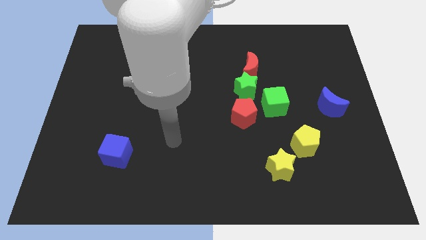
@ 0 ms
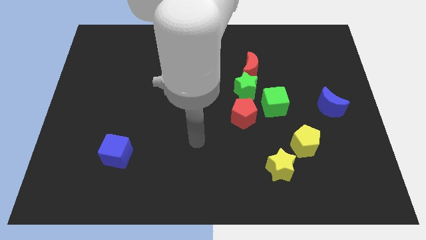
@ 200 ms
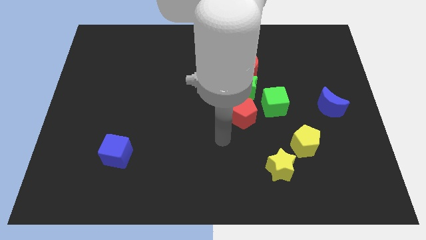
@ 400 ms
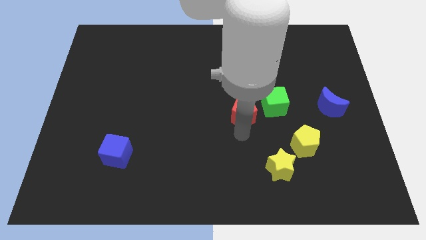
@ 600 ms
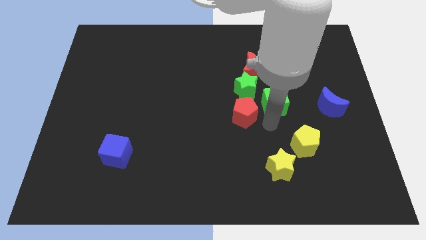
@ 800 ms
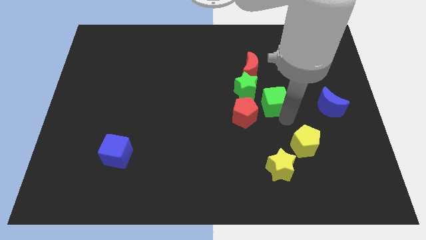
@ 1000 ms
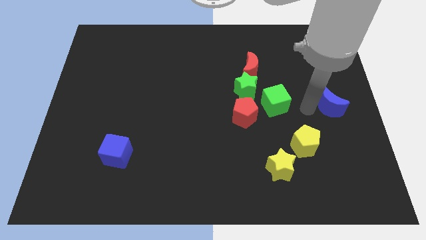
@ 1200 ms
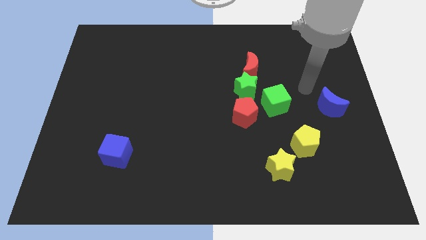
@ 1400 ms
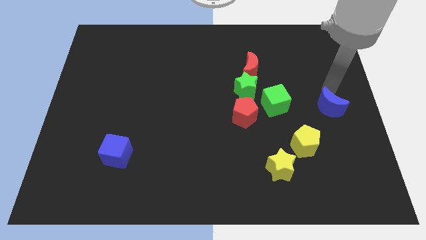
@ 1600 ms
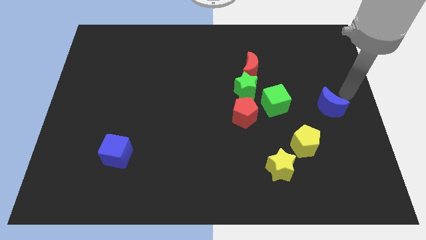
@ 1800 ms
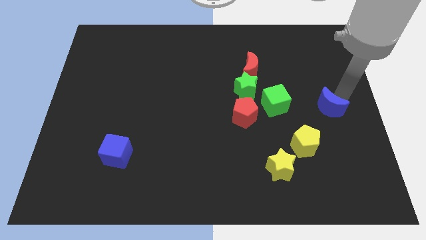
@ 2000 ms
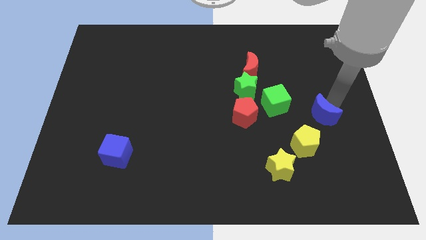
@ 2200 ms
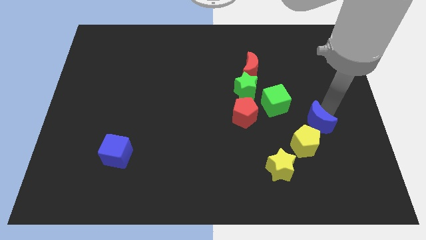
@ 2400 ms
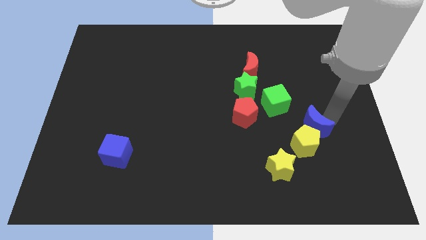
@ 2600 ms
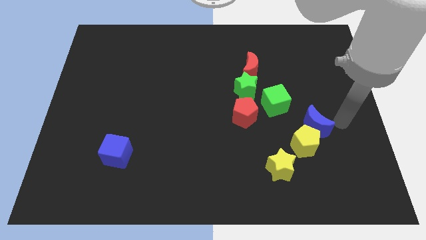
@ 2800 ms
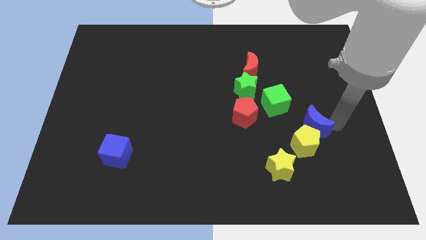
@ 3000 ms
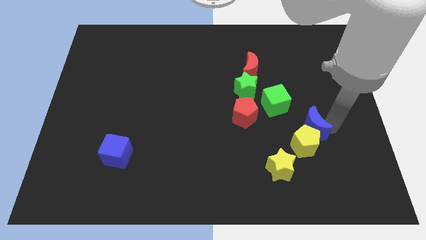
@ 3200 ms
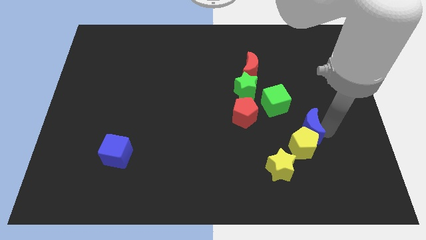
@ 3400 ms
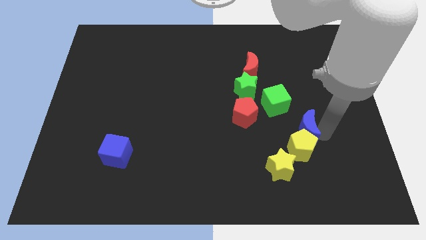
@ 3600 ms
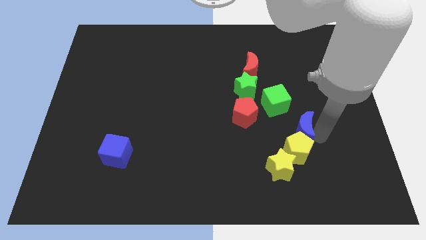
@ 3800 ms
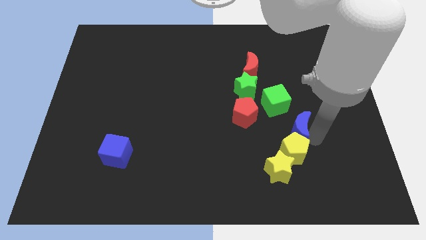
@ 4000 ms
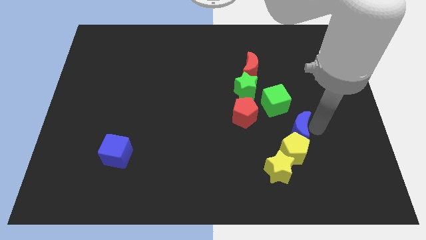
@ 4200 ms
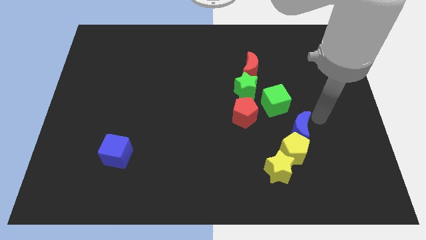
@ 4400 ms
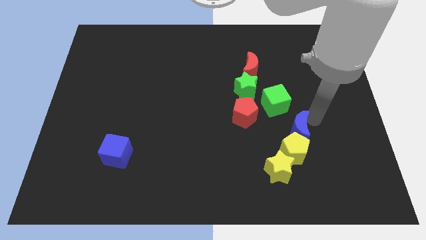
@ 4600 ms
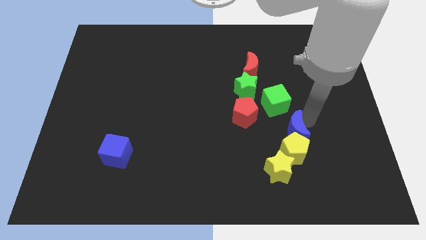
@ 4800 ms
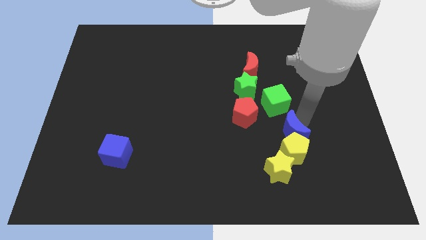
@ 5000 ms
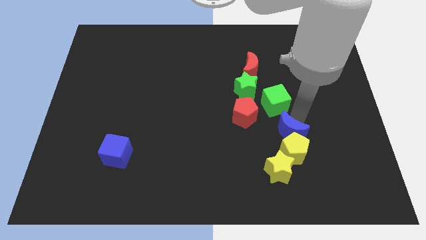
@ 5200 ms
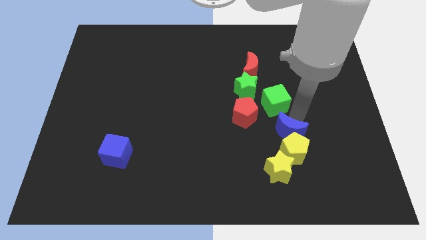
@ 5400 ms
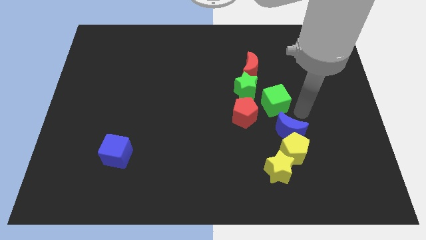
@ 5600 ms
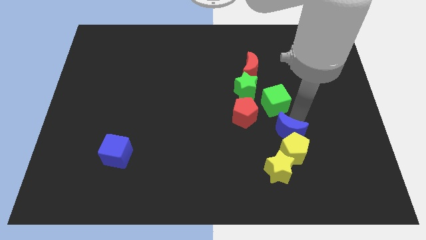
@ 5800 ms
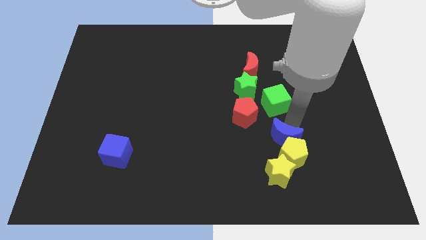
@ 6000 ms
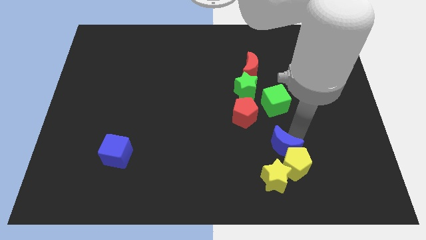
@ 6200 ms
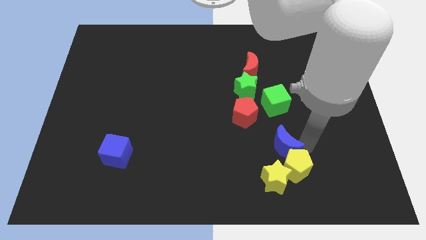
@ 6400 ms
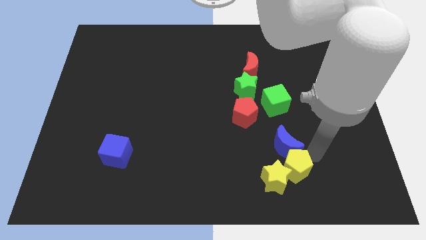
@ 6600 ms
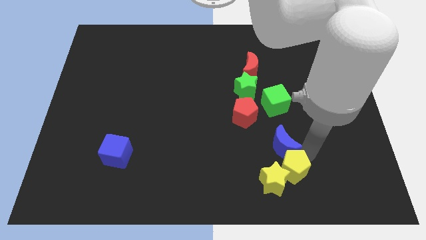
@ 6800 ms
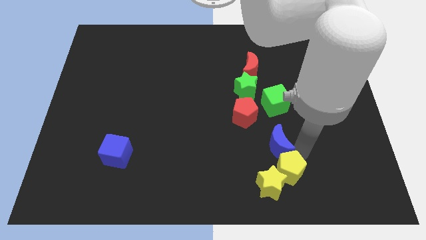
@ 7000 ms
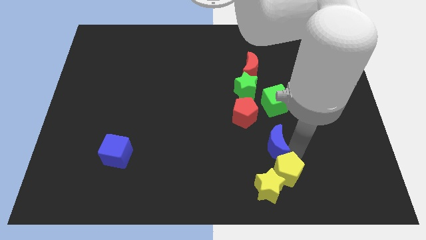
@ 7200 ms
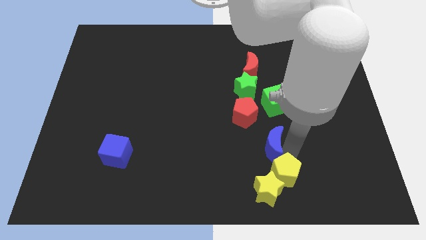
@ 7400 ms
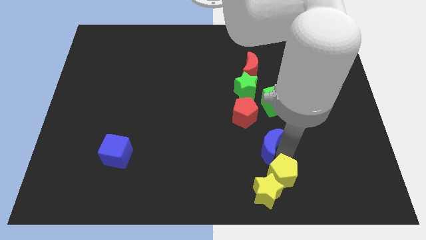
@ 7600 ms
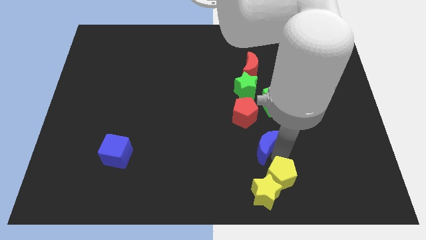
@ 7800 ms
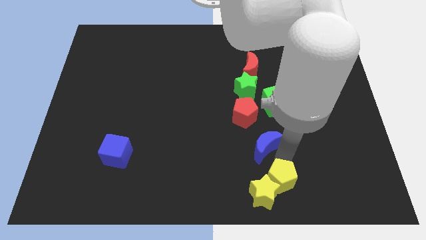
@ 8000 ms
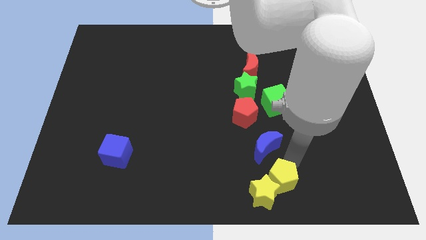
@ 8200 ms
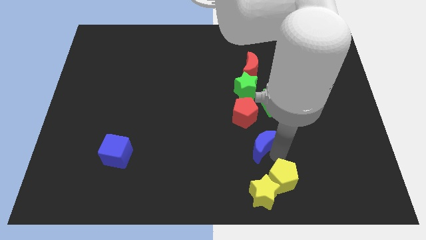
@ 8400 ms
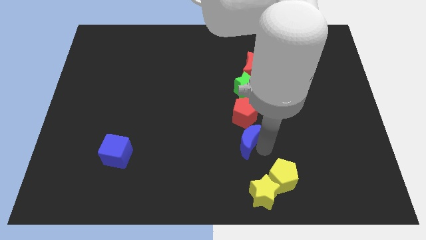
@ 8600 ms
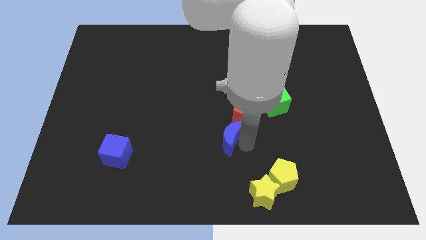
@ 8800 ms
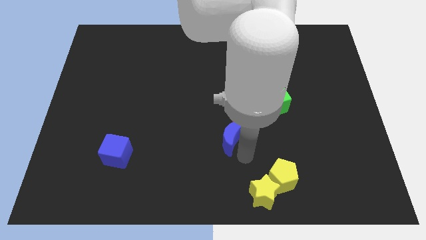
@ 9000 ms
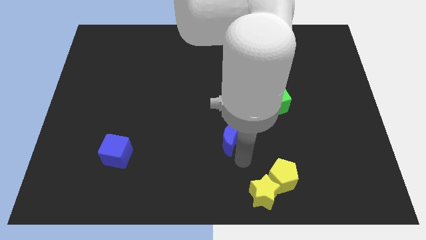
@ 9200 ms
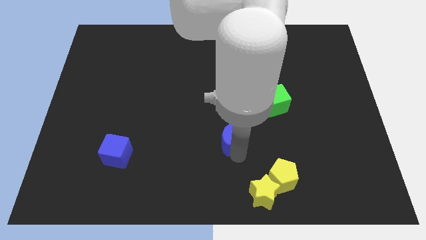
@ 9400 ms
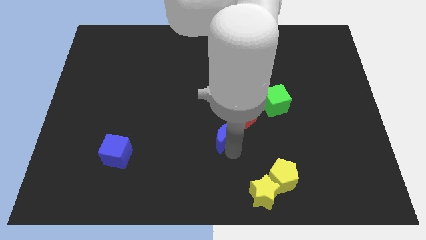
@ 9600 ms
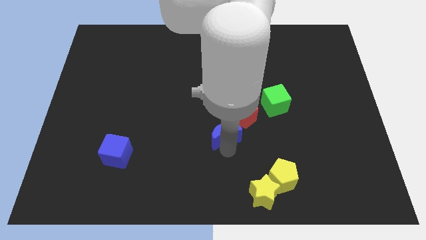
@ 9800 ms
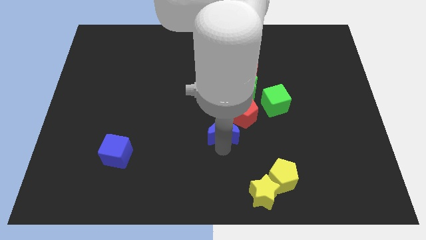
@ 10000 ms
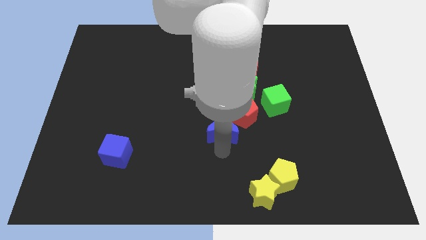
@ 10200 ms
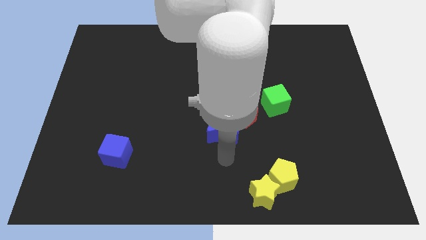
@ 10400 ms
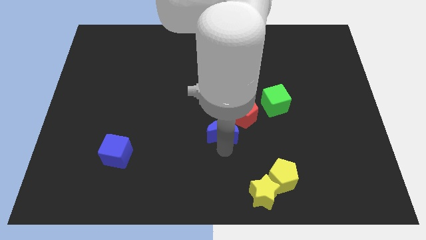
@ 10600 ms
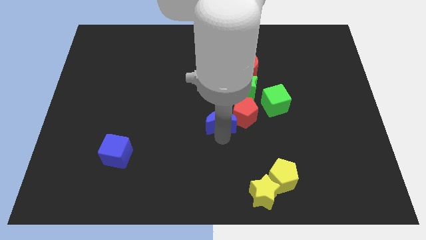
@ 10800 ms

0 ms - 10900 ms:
move the blue moon to the bottom left of the green star

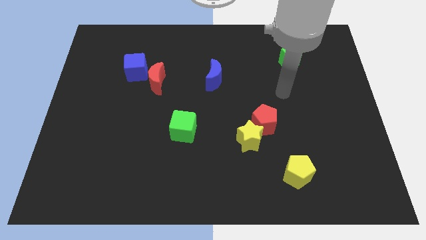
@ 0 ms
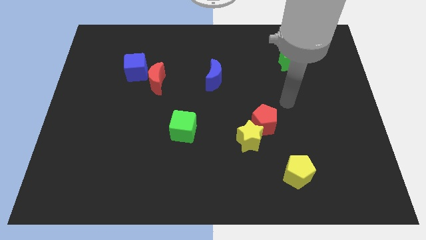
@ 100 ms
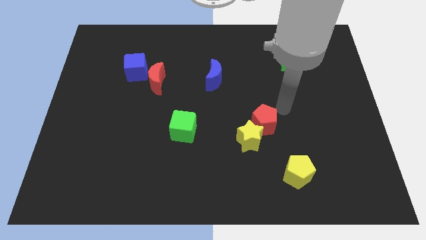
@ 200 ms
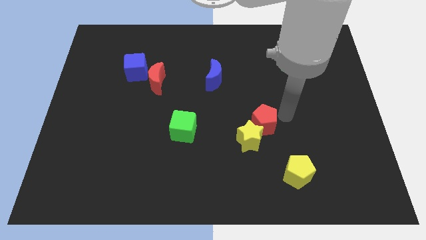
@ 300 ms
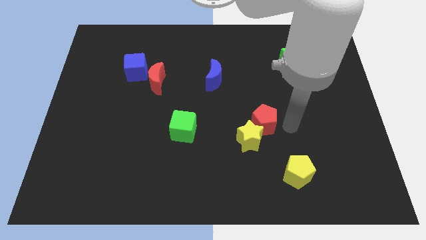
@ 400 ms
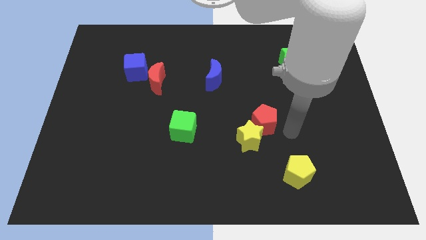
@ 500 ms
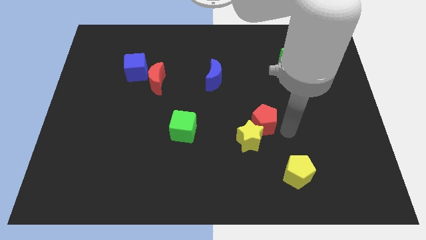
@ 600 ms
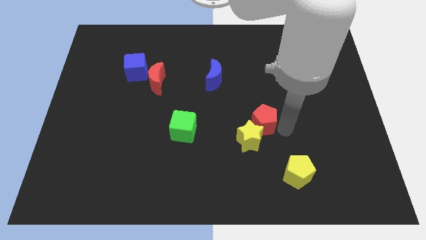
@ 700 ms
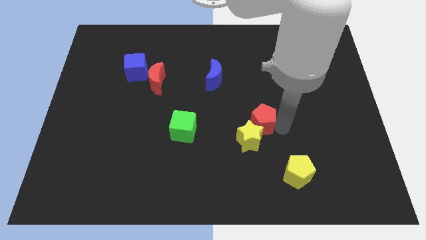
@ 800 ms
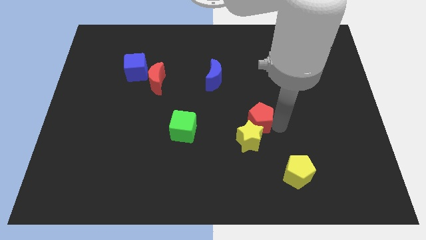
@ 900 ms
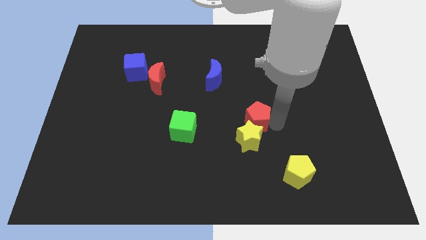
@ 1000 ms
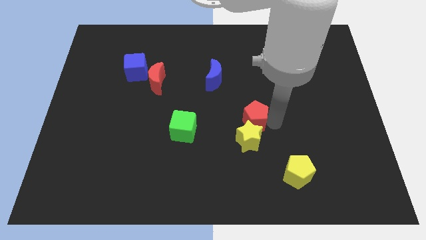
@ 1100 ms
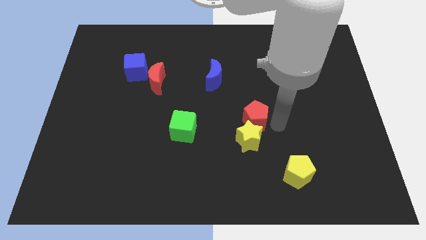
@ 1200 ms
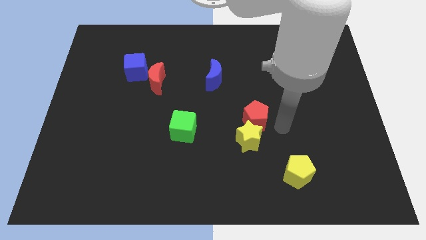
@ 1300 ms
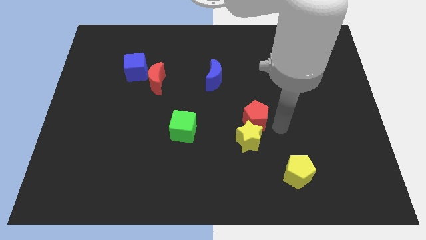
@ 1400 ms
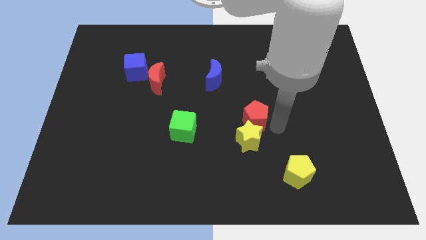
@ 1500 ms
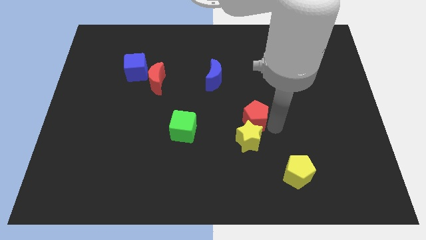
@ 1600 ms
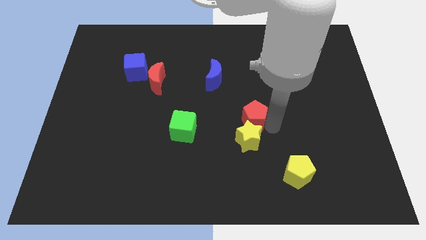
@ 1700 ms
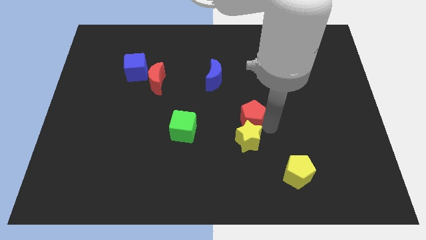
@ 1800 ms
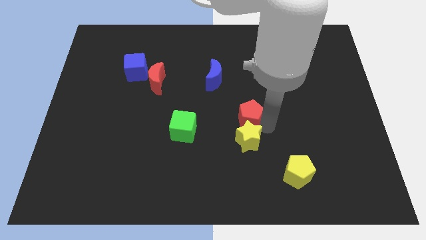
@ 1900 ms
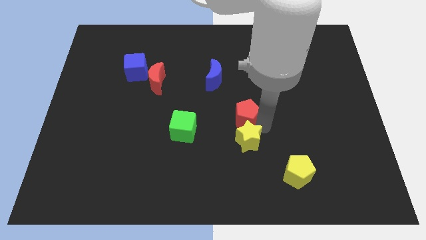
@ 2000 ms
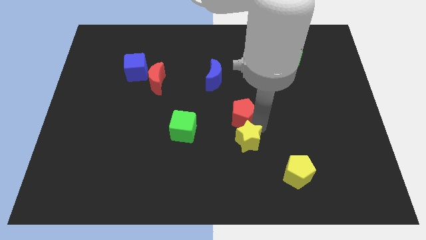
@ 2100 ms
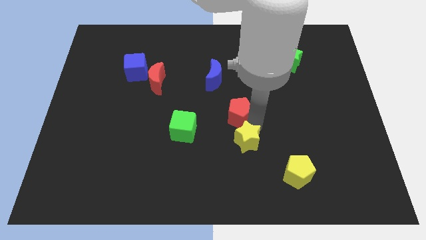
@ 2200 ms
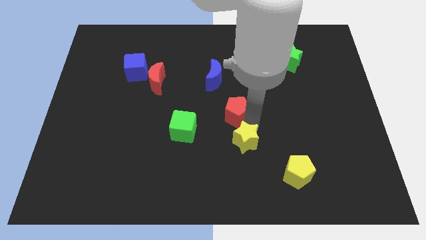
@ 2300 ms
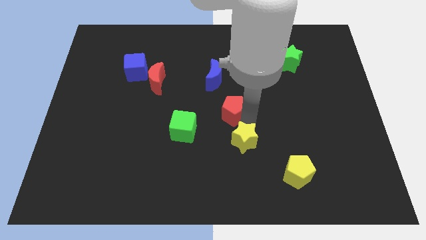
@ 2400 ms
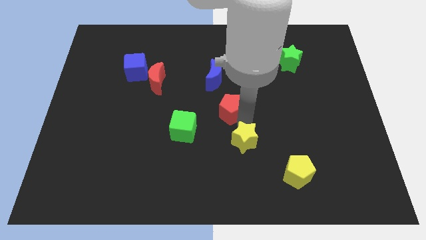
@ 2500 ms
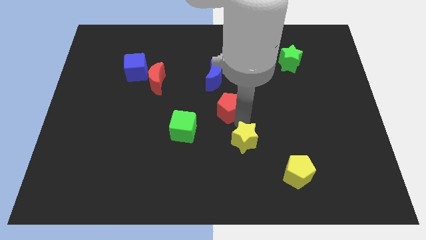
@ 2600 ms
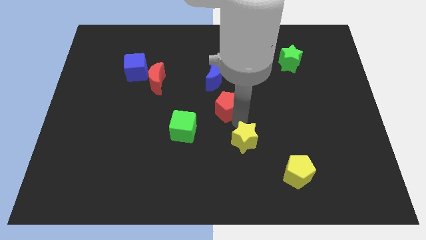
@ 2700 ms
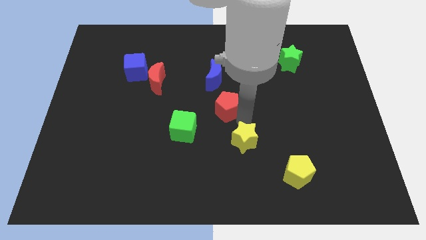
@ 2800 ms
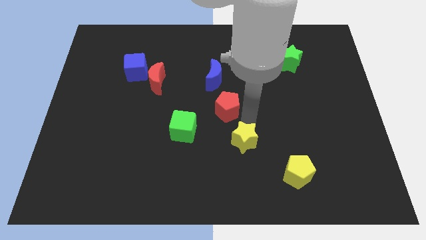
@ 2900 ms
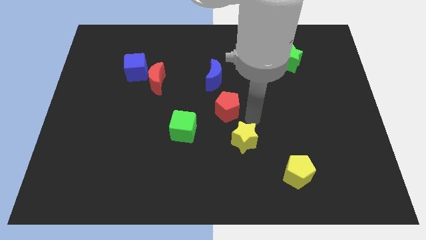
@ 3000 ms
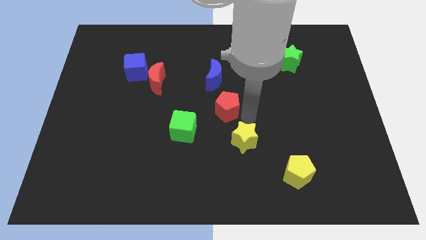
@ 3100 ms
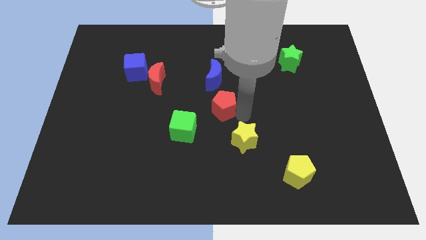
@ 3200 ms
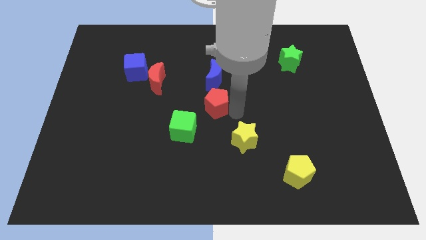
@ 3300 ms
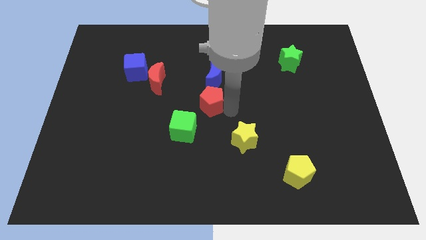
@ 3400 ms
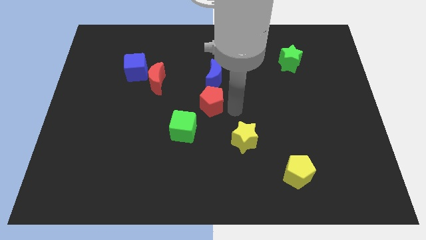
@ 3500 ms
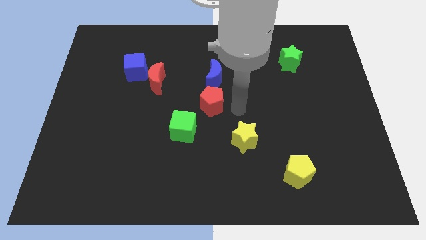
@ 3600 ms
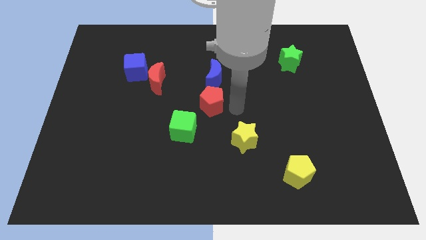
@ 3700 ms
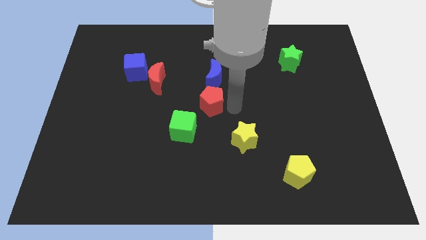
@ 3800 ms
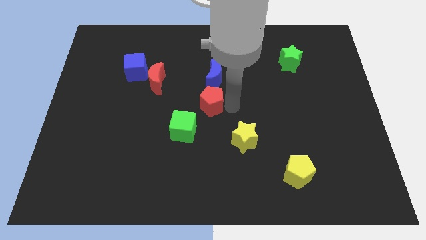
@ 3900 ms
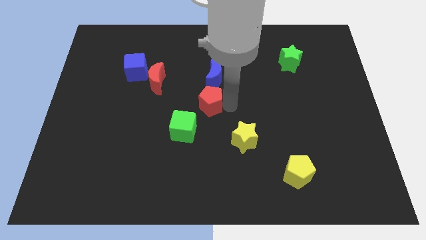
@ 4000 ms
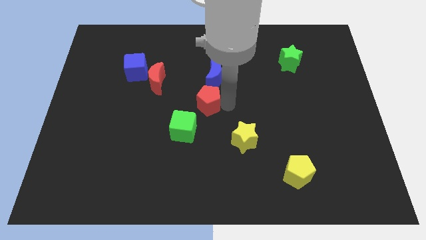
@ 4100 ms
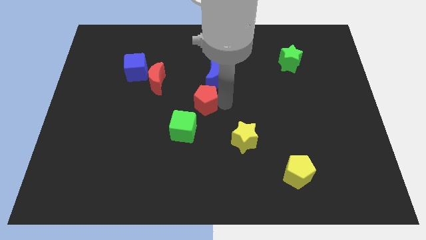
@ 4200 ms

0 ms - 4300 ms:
slide the red pentagon to the top side of the green cube
